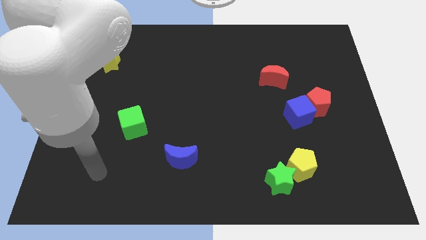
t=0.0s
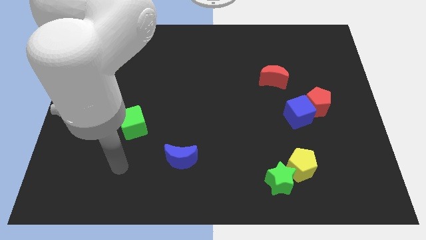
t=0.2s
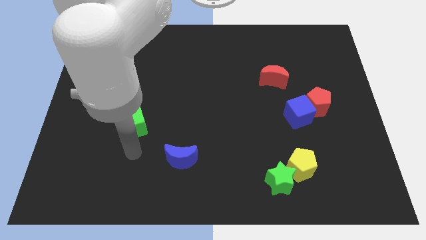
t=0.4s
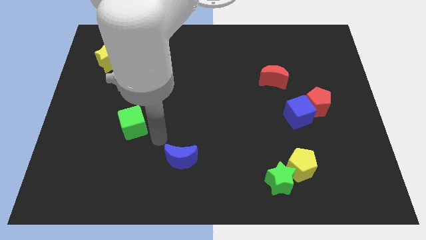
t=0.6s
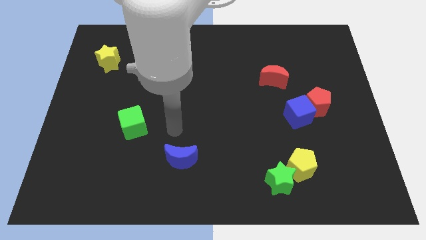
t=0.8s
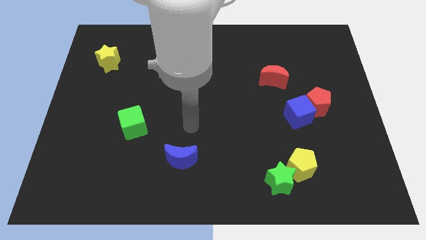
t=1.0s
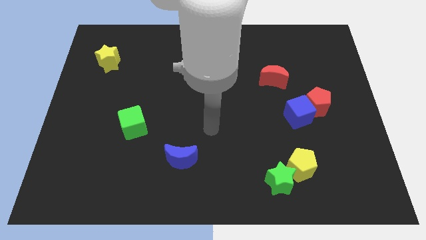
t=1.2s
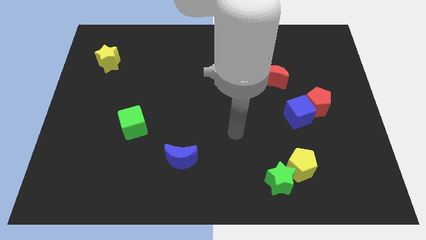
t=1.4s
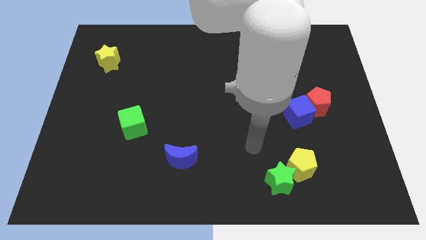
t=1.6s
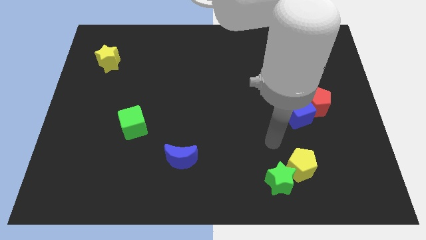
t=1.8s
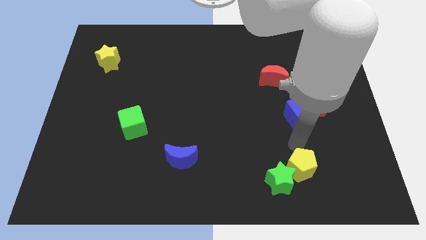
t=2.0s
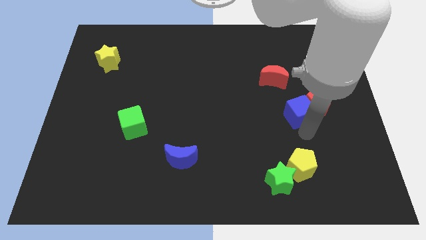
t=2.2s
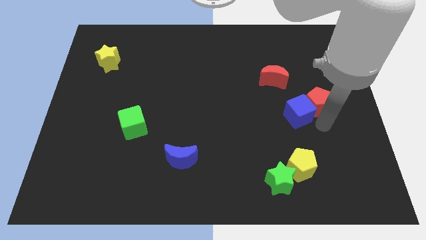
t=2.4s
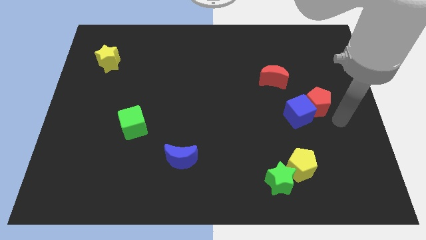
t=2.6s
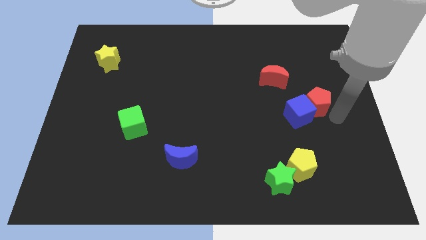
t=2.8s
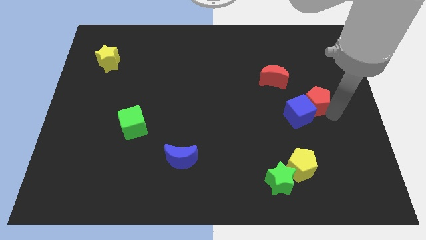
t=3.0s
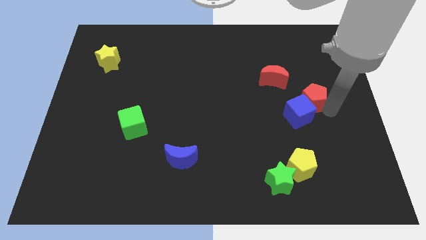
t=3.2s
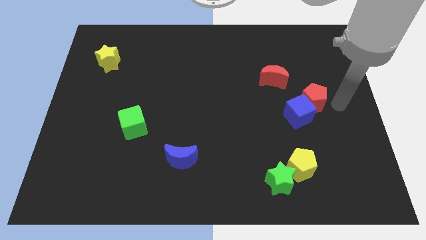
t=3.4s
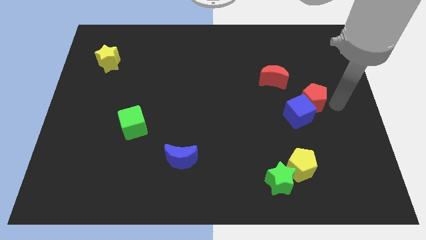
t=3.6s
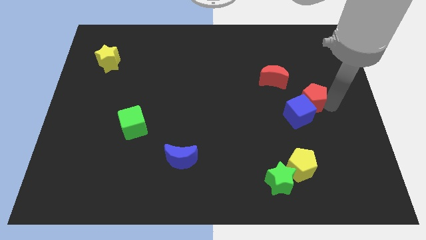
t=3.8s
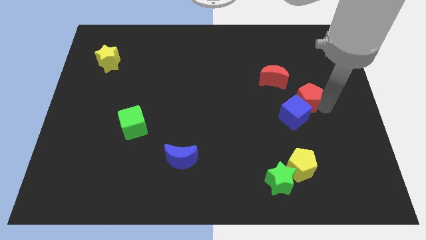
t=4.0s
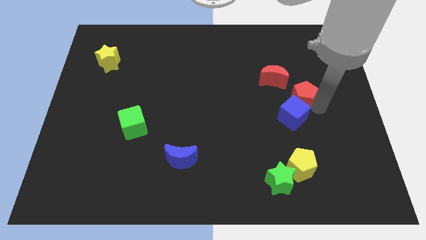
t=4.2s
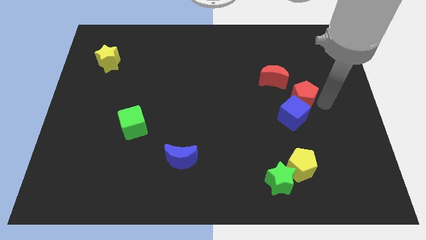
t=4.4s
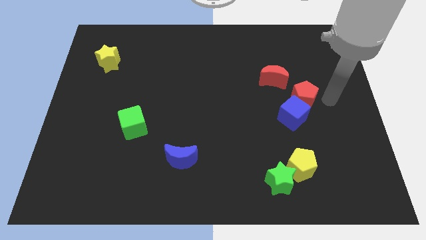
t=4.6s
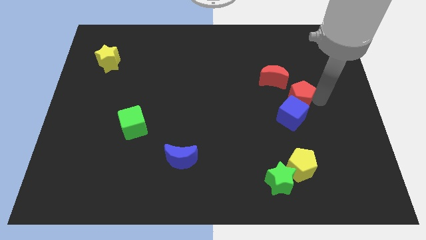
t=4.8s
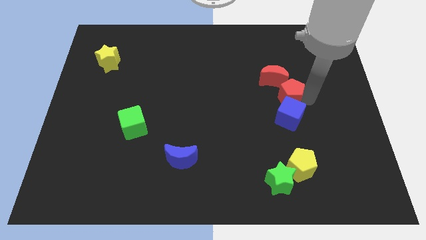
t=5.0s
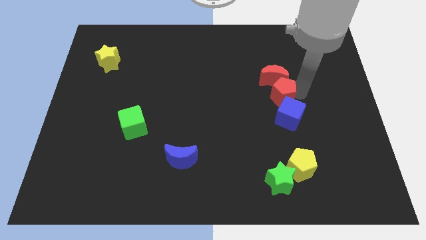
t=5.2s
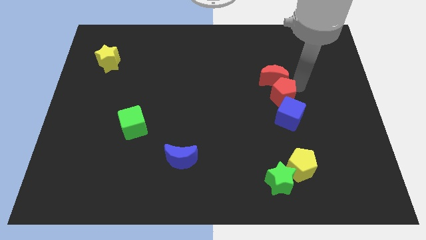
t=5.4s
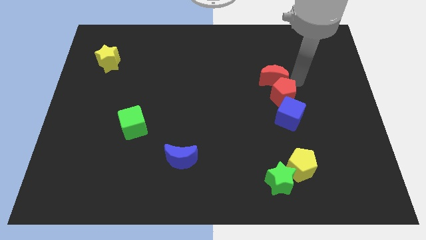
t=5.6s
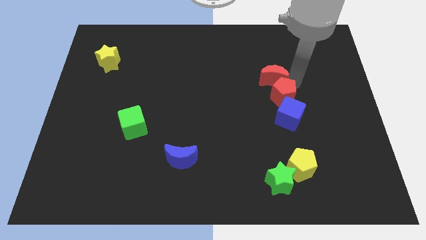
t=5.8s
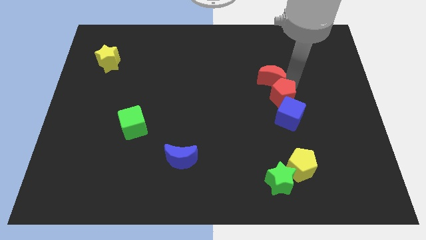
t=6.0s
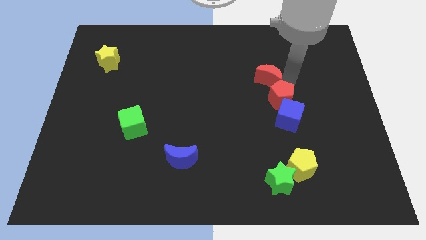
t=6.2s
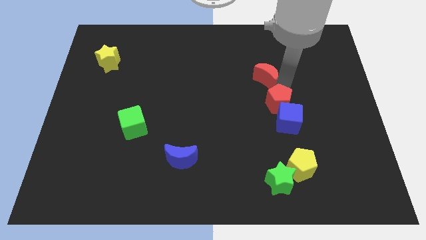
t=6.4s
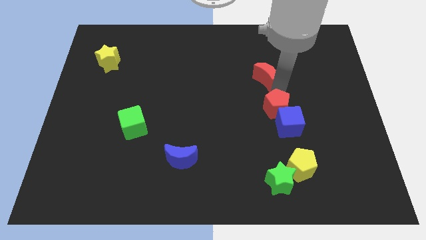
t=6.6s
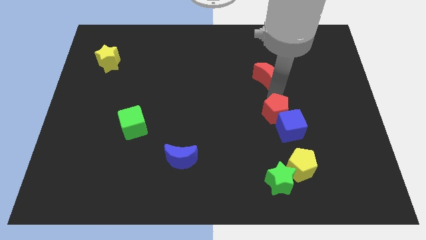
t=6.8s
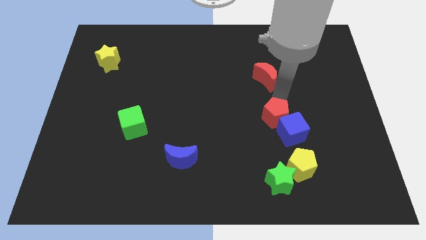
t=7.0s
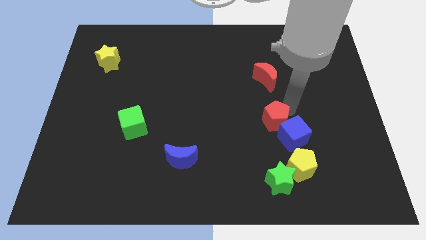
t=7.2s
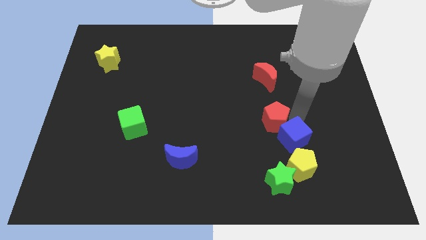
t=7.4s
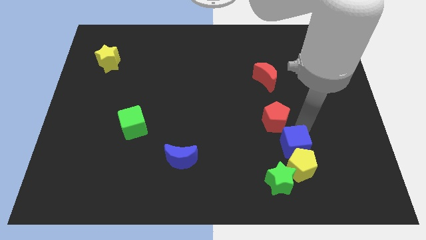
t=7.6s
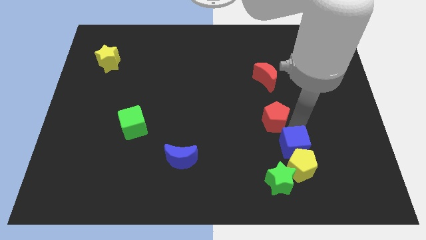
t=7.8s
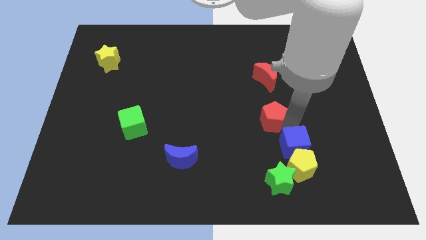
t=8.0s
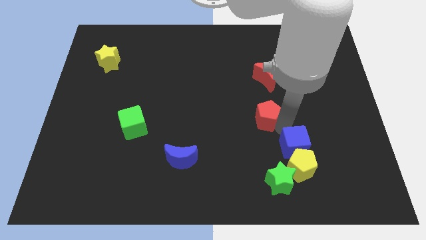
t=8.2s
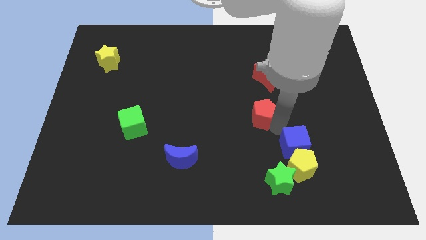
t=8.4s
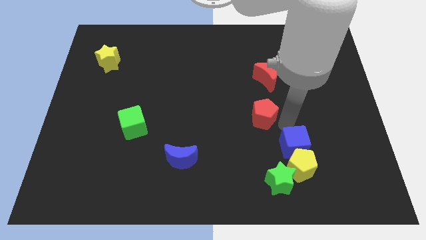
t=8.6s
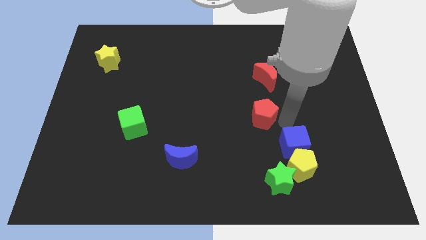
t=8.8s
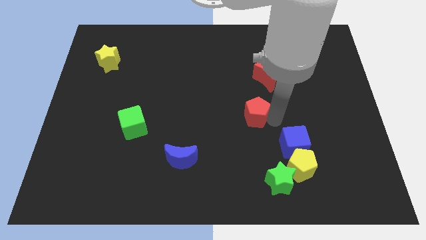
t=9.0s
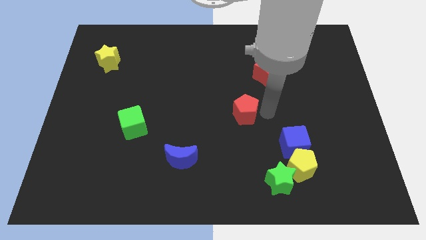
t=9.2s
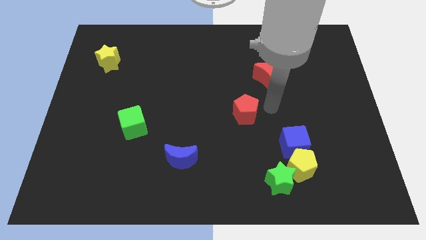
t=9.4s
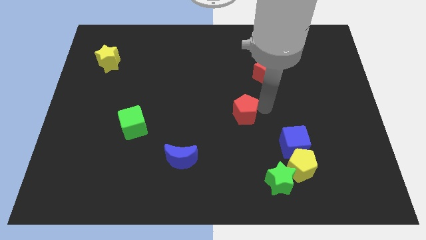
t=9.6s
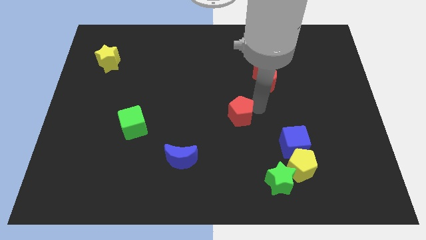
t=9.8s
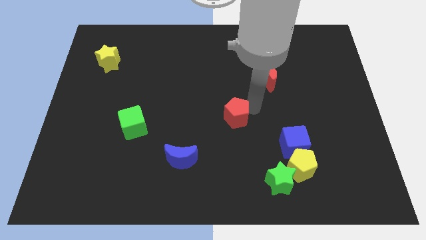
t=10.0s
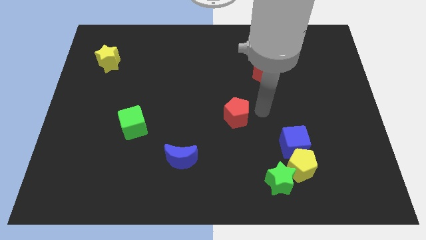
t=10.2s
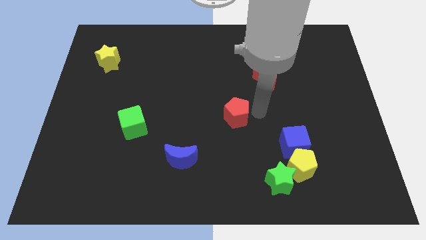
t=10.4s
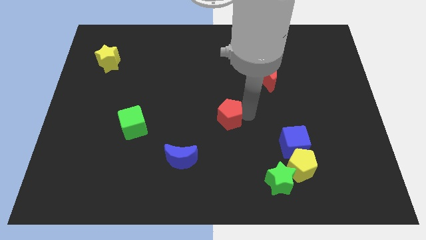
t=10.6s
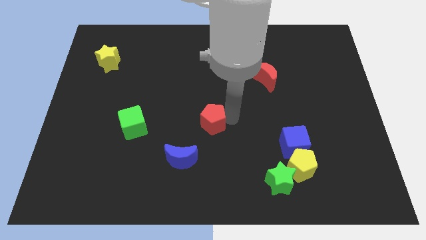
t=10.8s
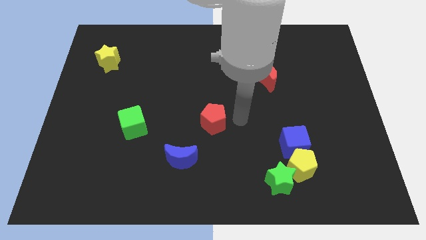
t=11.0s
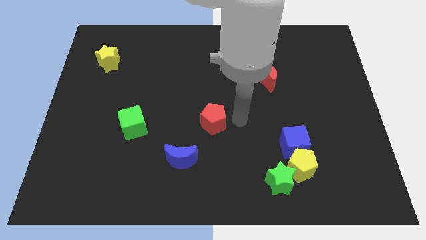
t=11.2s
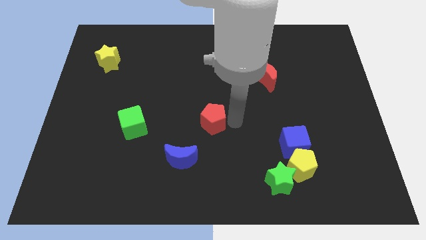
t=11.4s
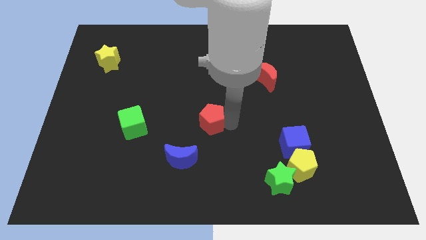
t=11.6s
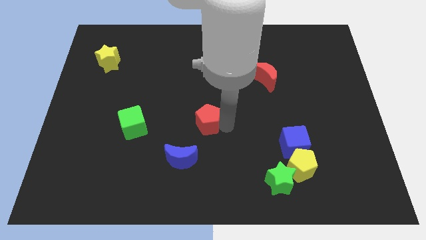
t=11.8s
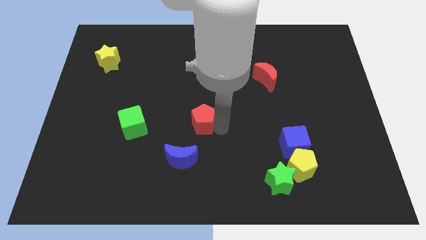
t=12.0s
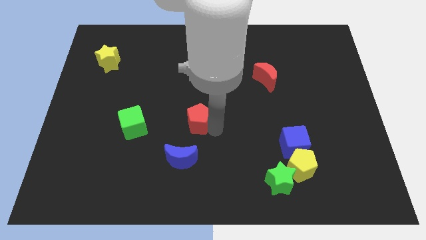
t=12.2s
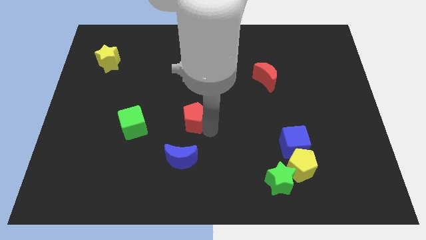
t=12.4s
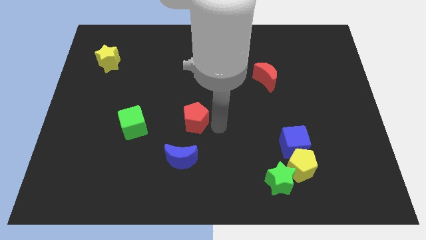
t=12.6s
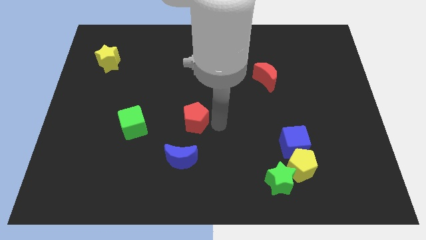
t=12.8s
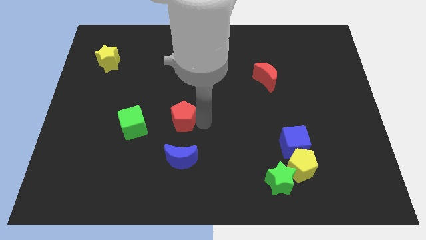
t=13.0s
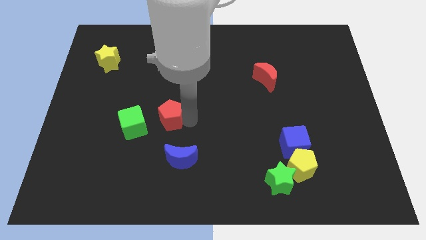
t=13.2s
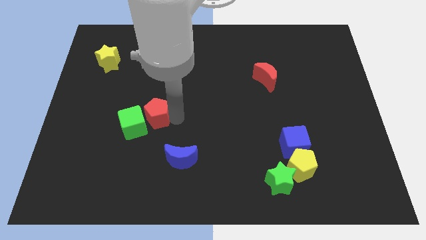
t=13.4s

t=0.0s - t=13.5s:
push the red pentagon towards the green cube
